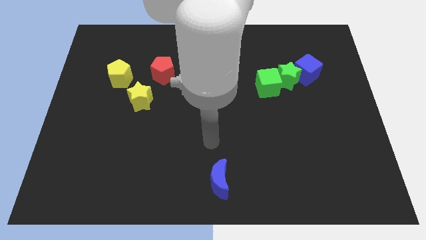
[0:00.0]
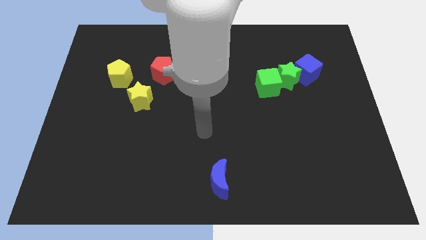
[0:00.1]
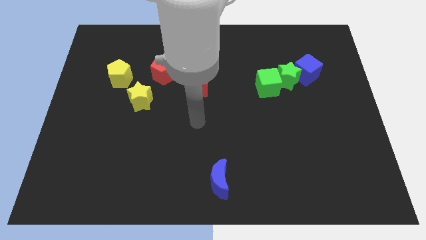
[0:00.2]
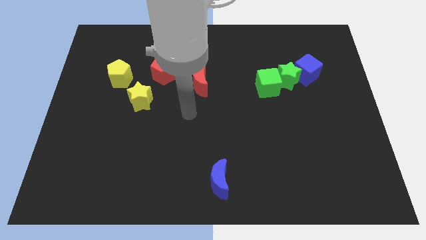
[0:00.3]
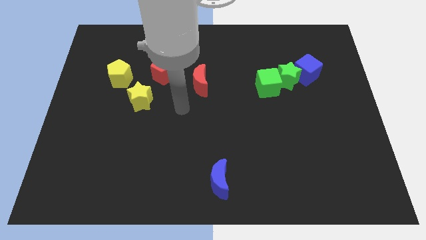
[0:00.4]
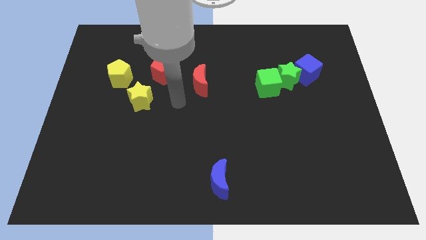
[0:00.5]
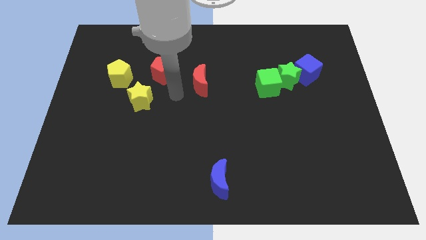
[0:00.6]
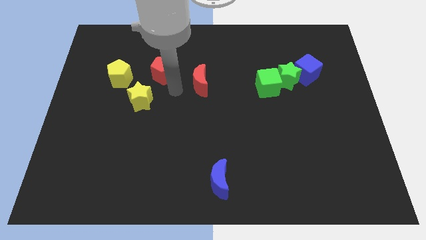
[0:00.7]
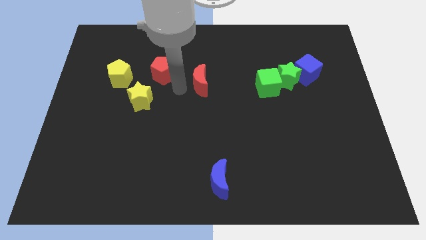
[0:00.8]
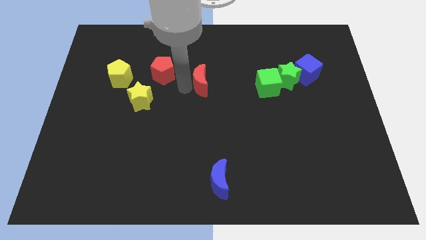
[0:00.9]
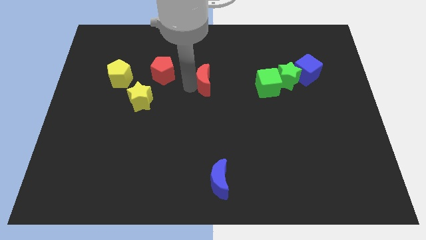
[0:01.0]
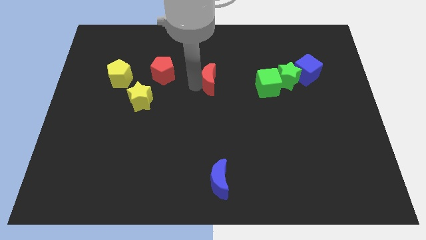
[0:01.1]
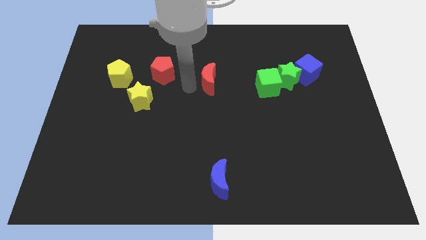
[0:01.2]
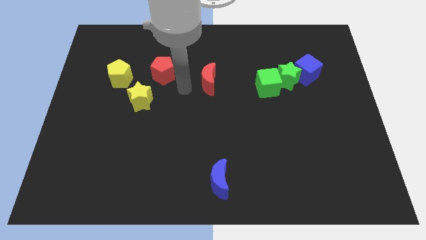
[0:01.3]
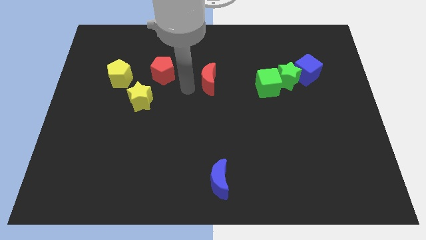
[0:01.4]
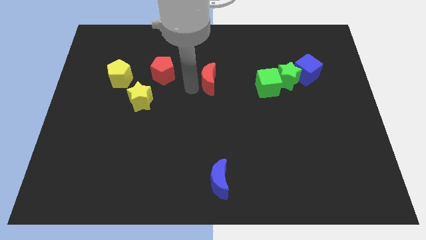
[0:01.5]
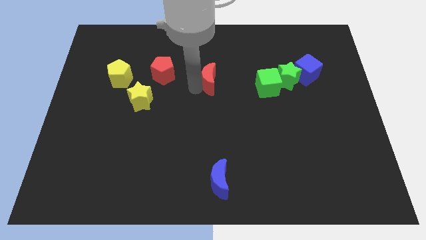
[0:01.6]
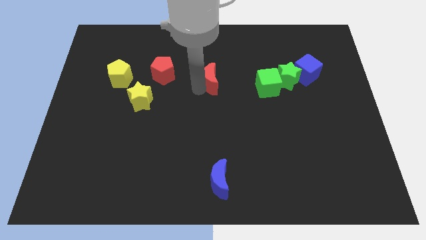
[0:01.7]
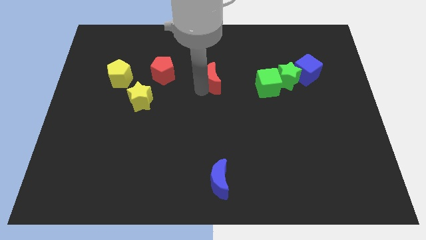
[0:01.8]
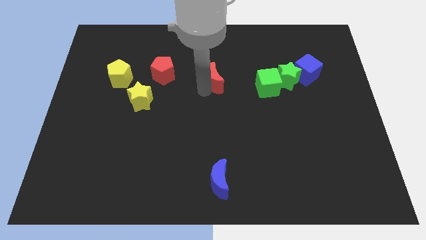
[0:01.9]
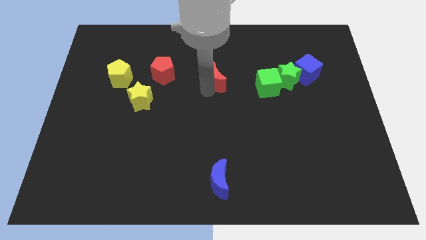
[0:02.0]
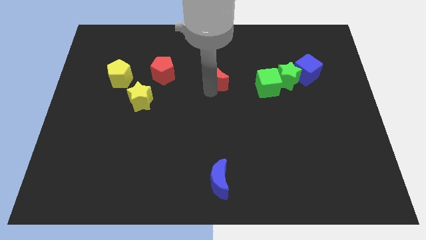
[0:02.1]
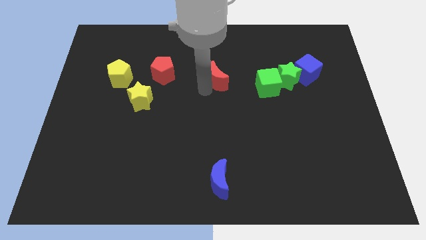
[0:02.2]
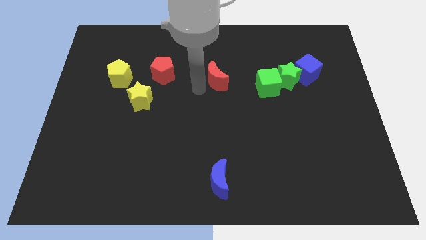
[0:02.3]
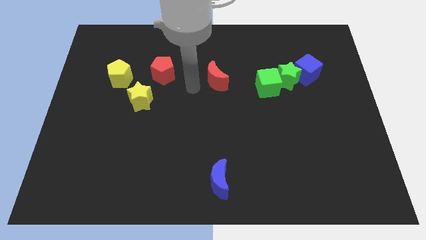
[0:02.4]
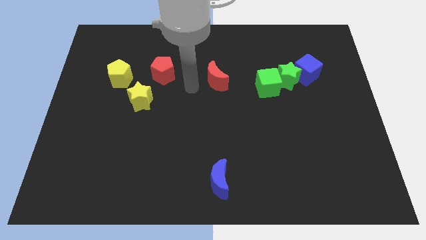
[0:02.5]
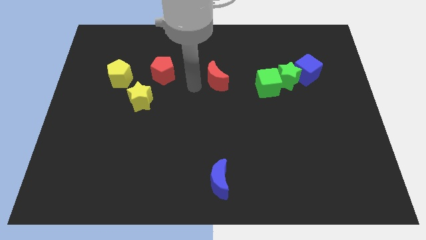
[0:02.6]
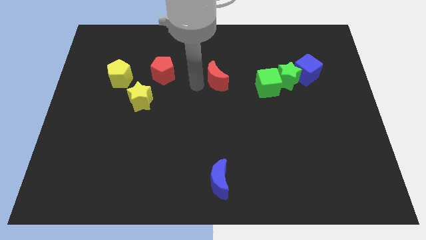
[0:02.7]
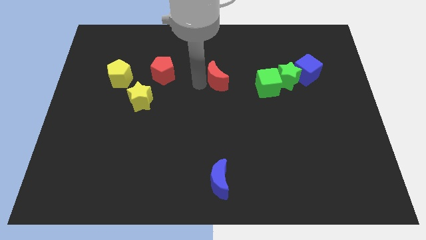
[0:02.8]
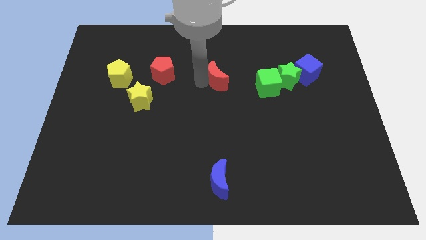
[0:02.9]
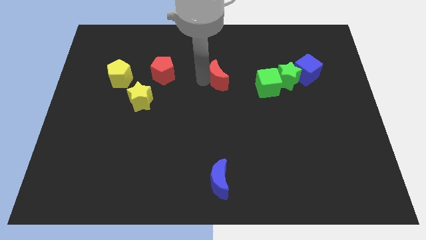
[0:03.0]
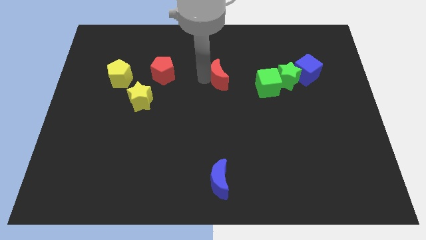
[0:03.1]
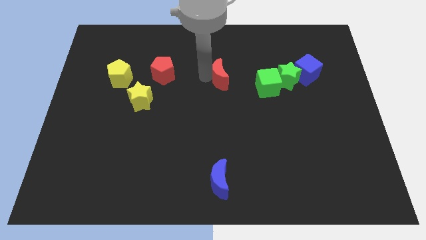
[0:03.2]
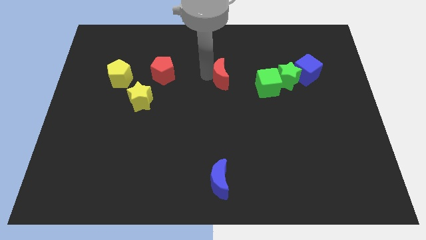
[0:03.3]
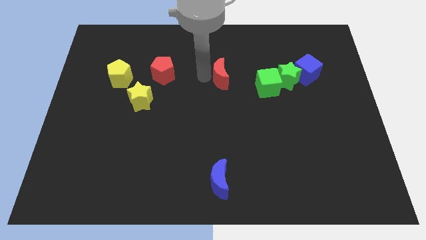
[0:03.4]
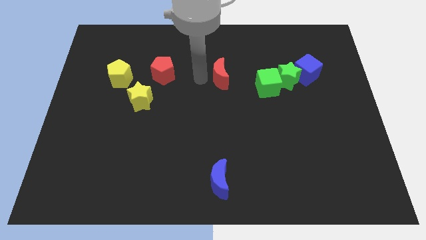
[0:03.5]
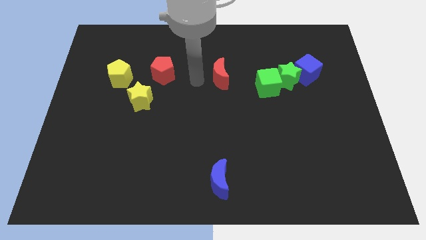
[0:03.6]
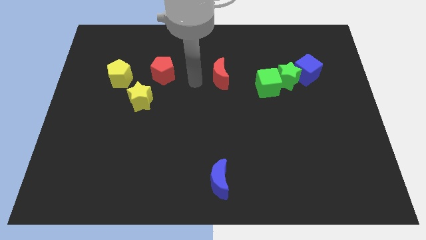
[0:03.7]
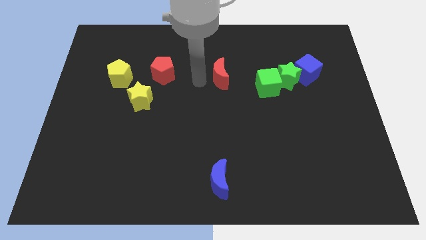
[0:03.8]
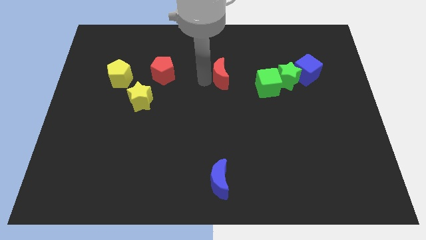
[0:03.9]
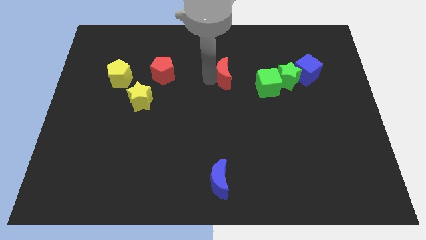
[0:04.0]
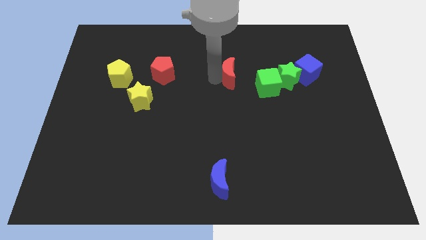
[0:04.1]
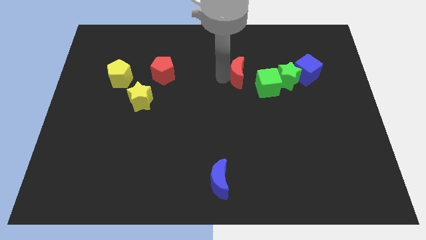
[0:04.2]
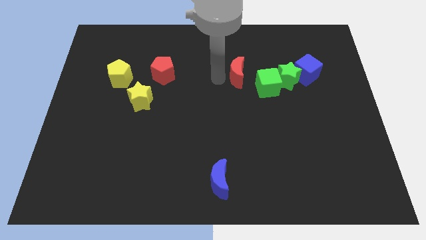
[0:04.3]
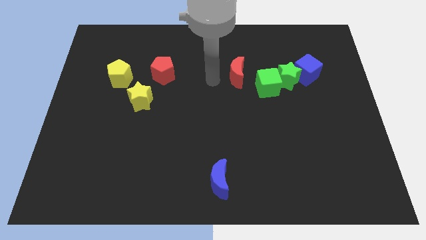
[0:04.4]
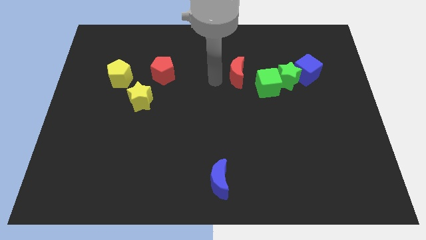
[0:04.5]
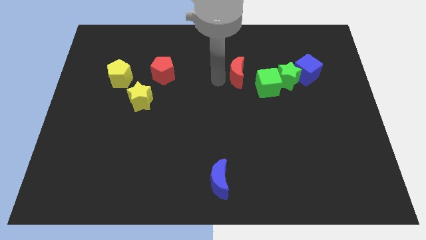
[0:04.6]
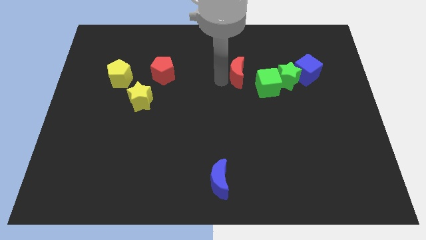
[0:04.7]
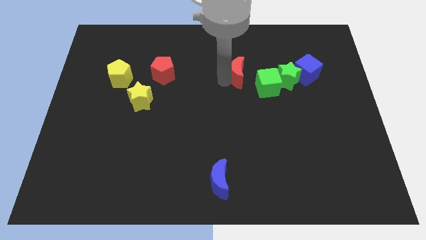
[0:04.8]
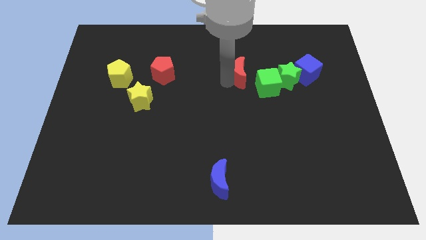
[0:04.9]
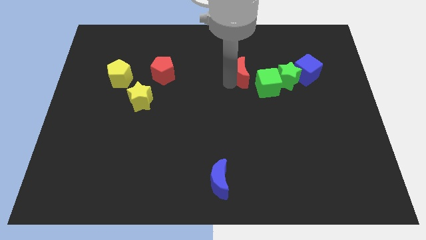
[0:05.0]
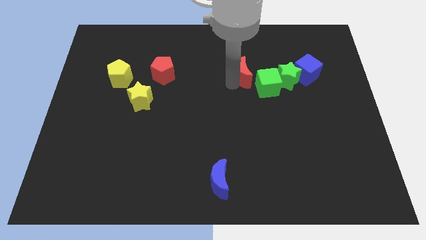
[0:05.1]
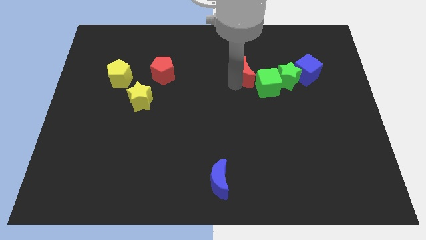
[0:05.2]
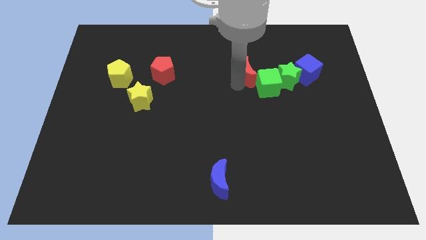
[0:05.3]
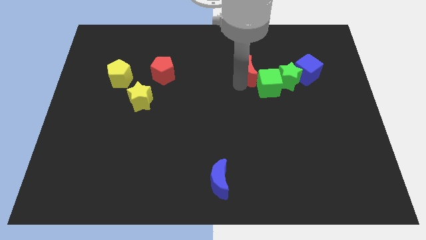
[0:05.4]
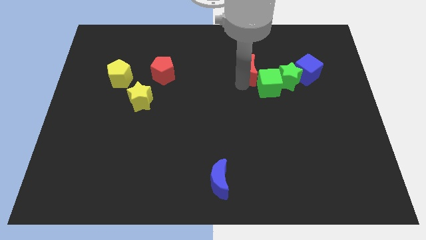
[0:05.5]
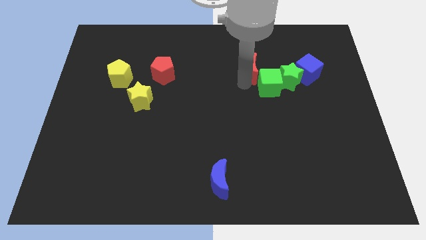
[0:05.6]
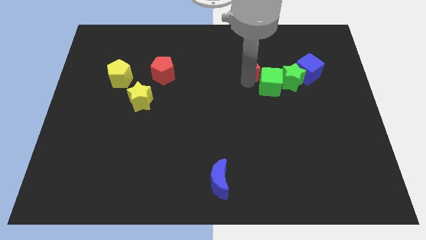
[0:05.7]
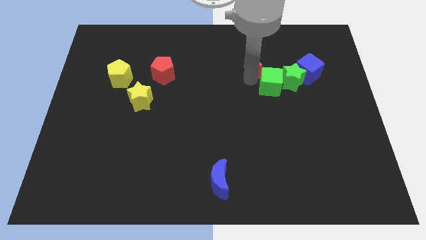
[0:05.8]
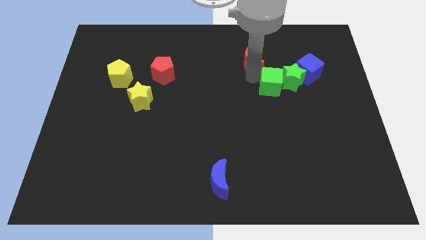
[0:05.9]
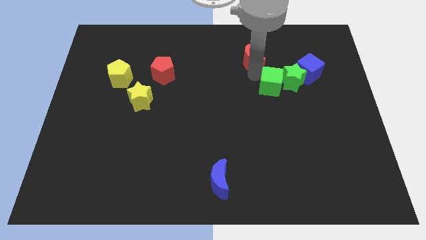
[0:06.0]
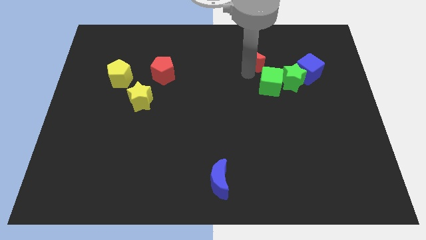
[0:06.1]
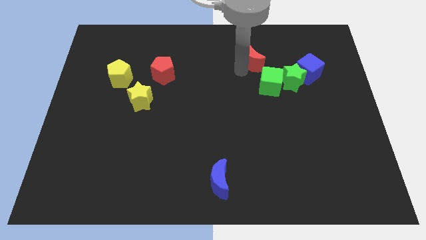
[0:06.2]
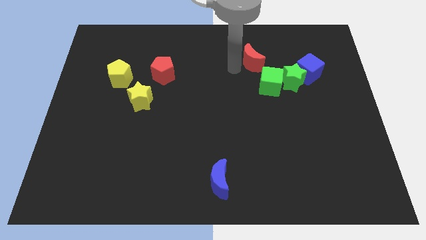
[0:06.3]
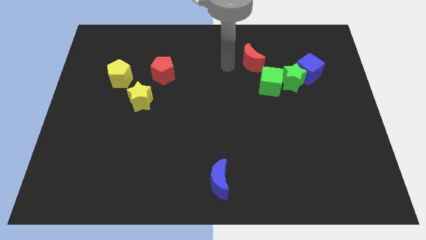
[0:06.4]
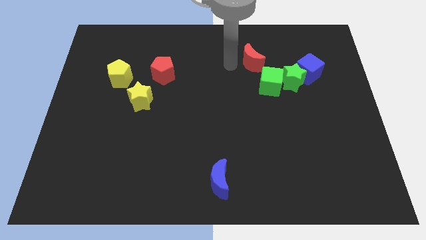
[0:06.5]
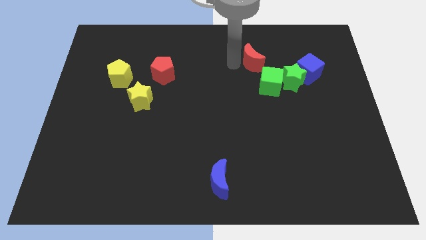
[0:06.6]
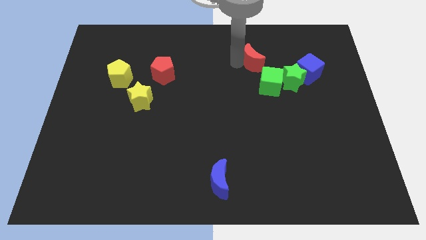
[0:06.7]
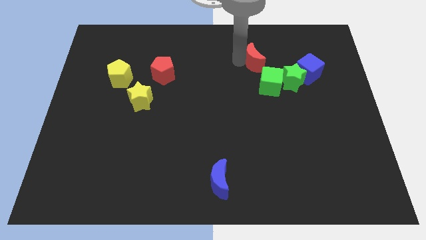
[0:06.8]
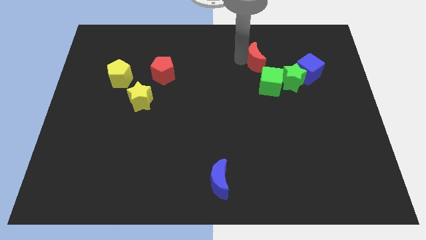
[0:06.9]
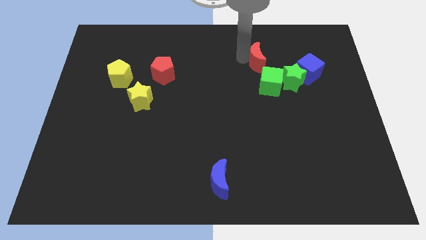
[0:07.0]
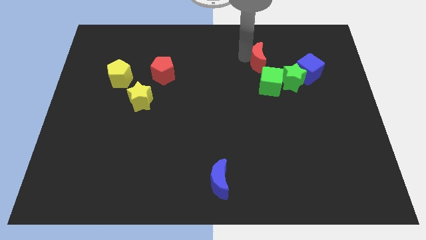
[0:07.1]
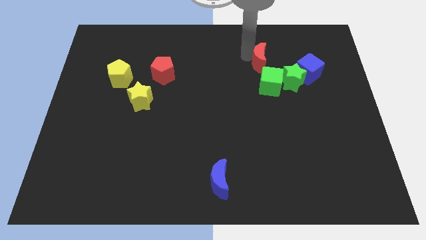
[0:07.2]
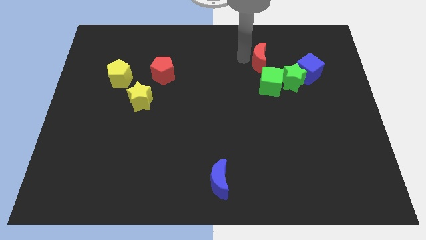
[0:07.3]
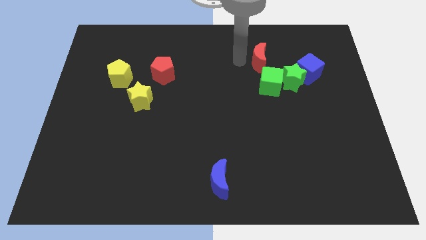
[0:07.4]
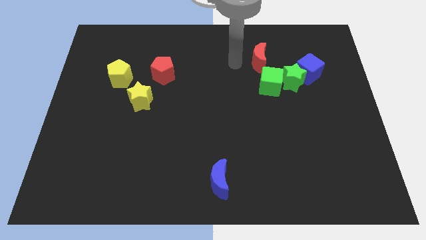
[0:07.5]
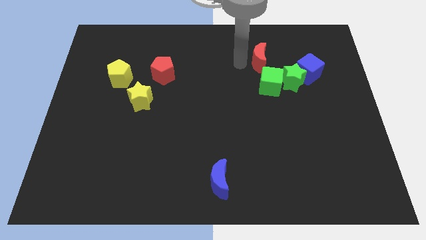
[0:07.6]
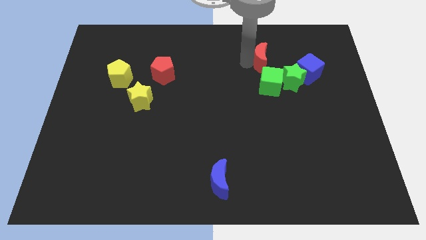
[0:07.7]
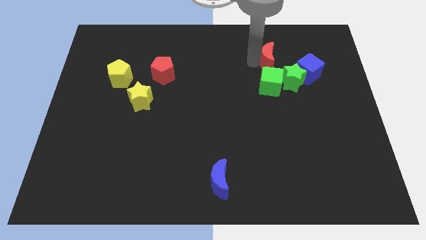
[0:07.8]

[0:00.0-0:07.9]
put the red moon diagonally up and to the left of the blue cube
